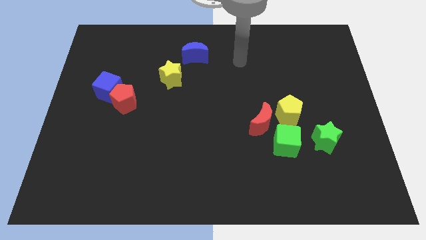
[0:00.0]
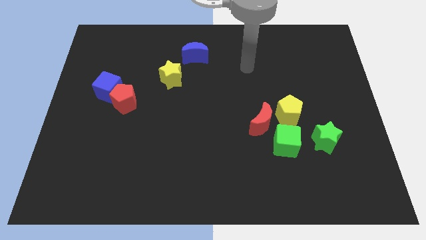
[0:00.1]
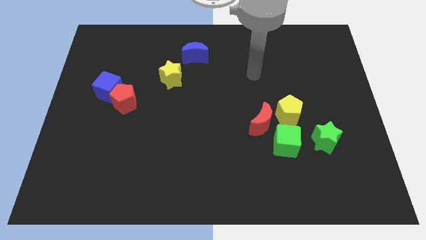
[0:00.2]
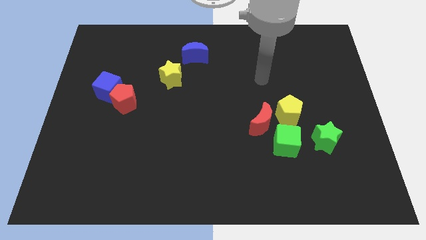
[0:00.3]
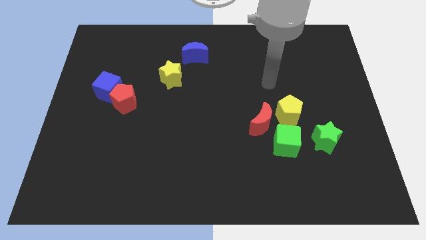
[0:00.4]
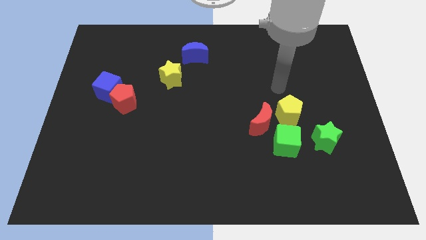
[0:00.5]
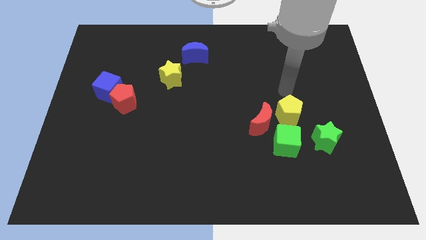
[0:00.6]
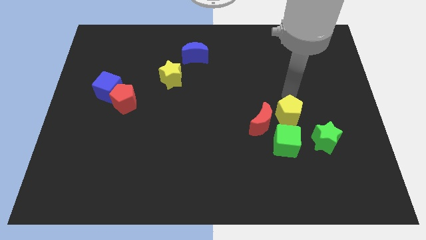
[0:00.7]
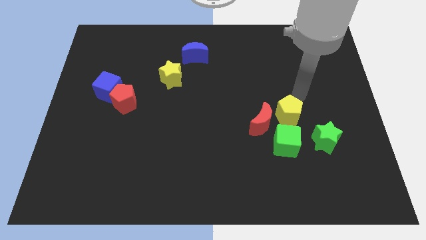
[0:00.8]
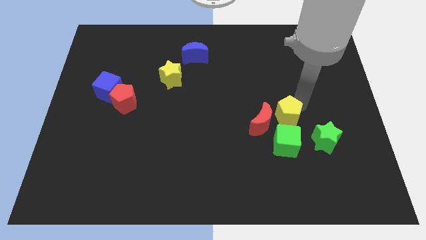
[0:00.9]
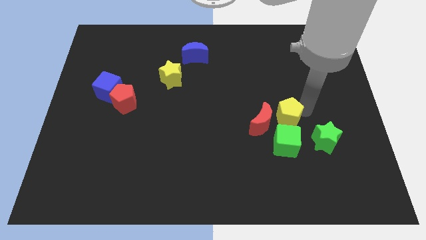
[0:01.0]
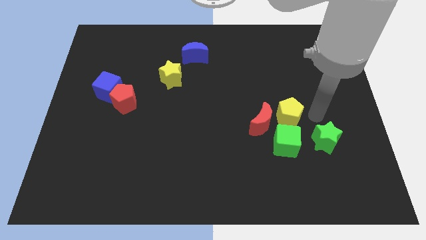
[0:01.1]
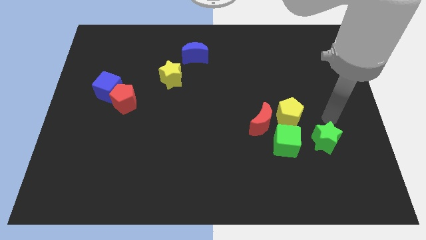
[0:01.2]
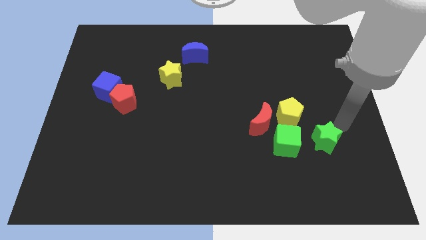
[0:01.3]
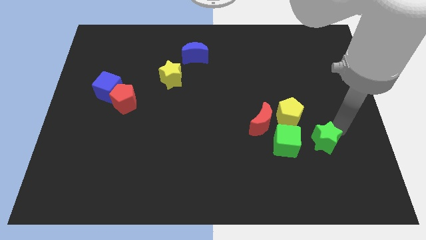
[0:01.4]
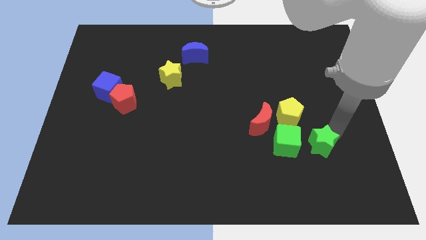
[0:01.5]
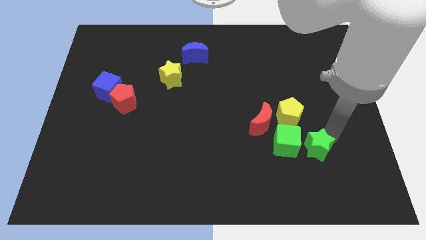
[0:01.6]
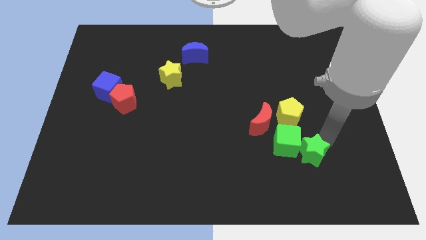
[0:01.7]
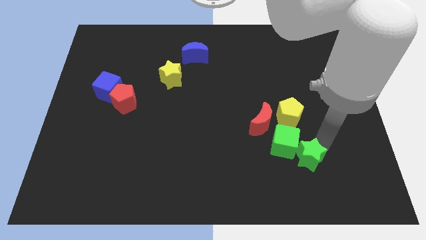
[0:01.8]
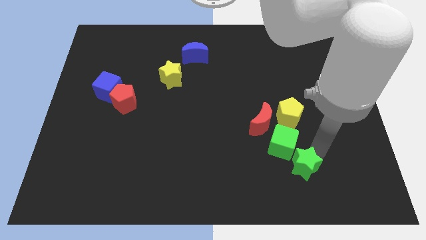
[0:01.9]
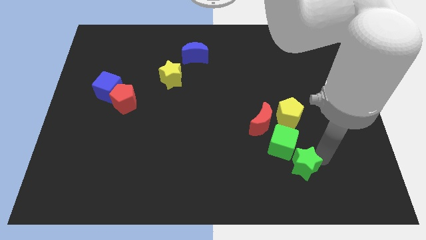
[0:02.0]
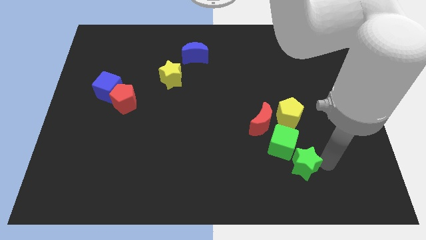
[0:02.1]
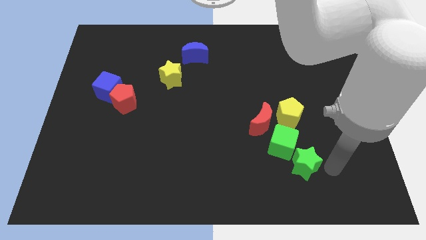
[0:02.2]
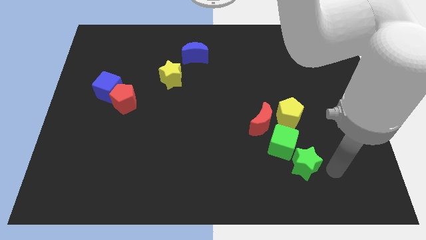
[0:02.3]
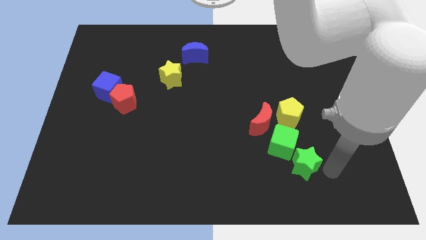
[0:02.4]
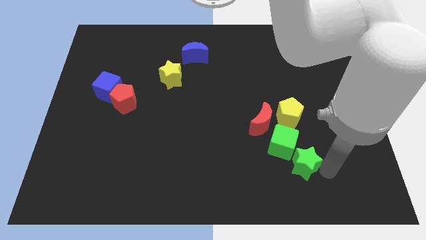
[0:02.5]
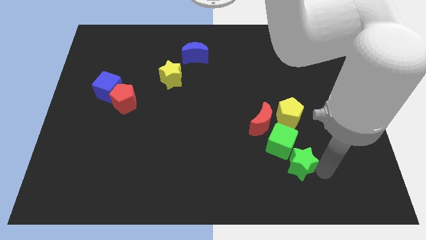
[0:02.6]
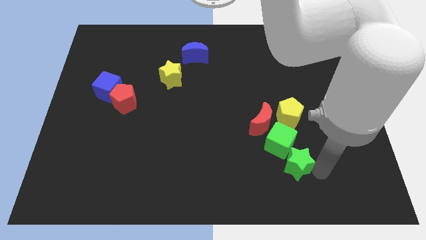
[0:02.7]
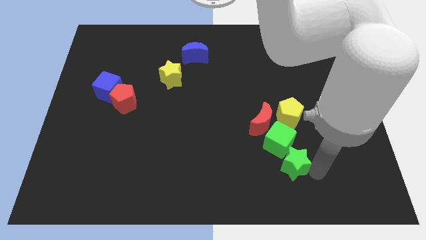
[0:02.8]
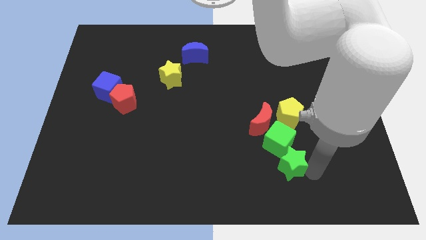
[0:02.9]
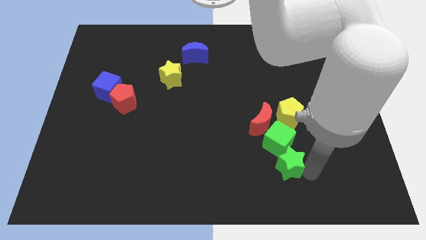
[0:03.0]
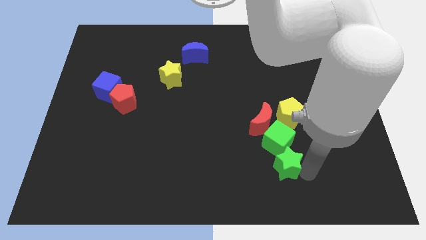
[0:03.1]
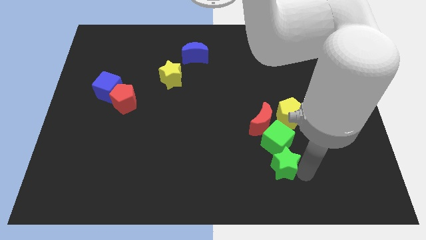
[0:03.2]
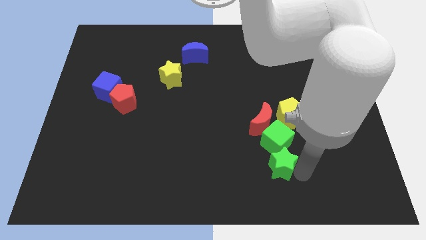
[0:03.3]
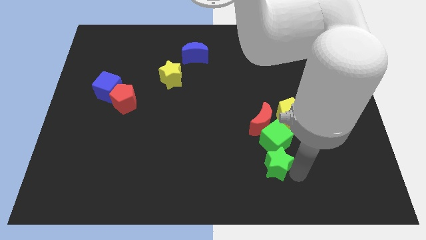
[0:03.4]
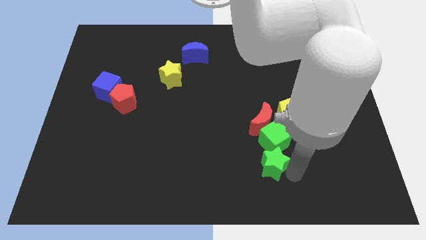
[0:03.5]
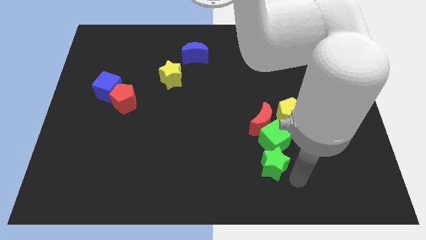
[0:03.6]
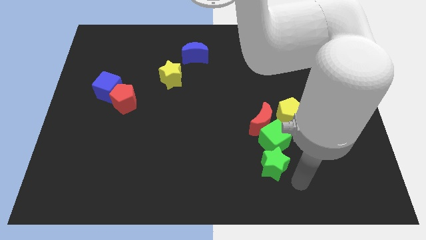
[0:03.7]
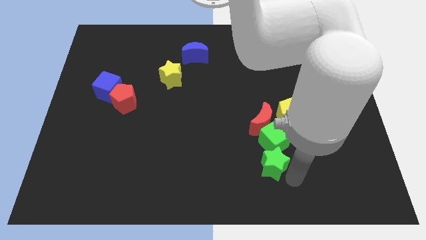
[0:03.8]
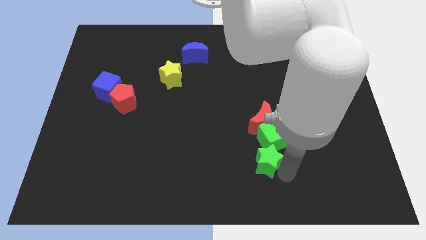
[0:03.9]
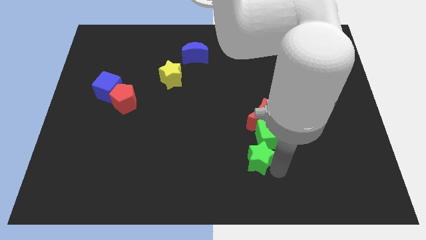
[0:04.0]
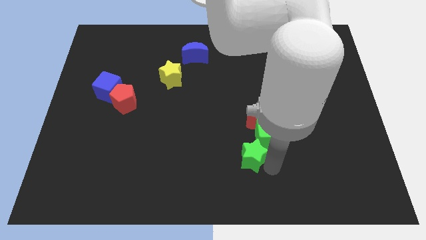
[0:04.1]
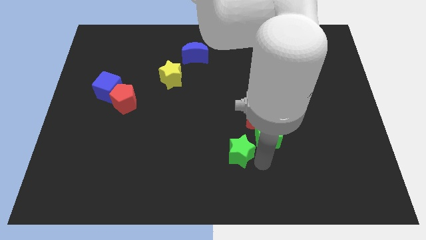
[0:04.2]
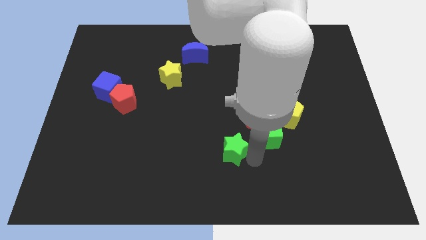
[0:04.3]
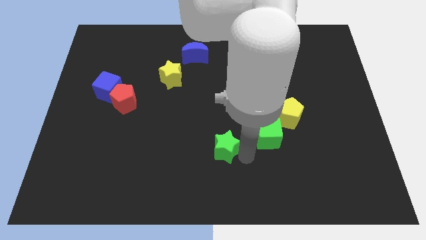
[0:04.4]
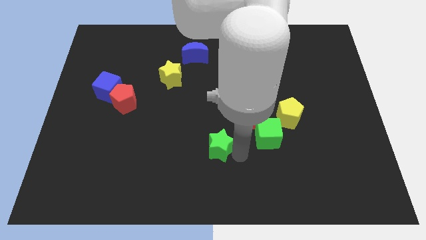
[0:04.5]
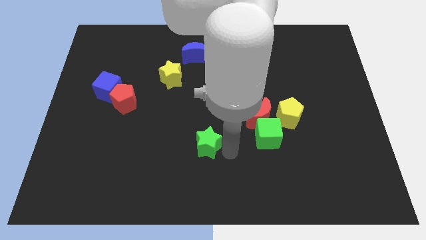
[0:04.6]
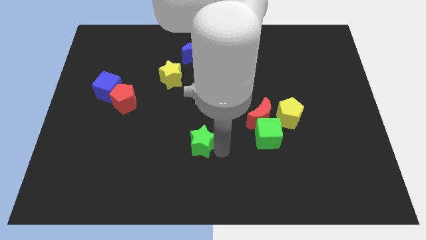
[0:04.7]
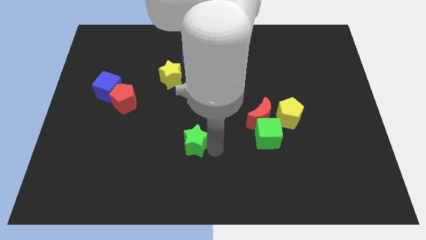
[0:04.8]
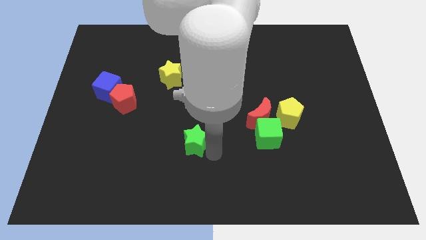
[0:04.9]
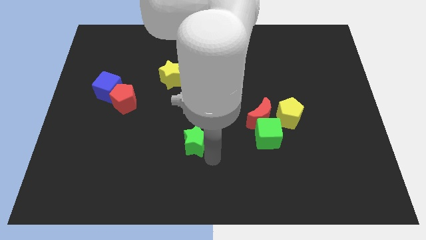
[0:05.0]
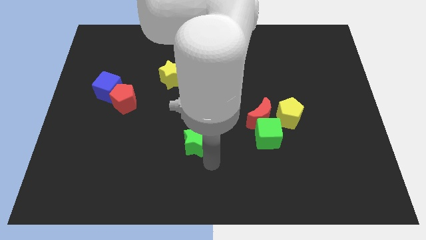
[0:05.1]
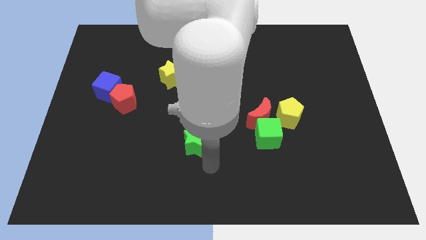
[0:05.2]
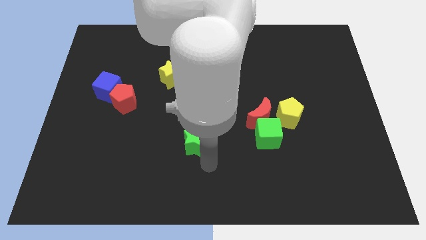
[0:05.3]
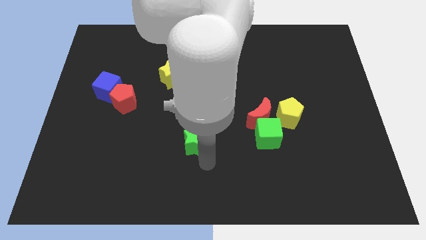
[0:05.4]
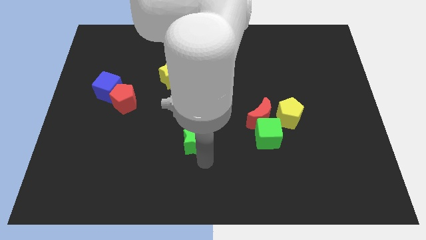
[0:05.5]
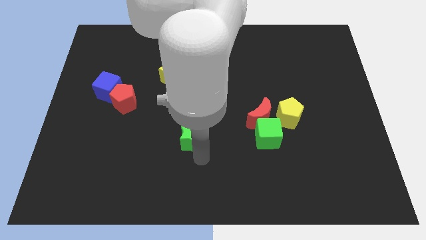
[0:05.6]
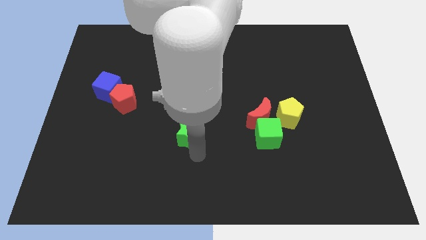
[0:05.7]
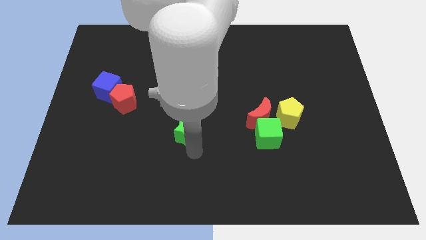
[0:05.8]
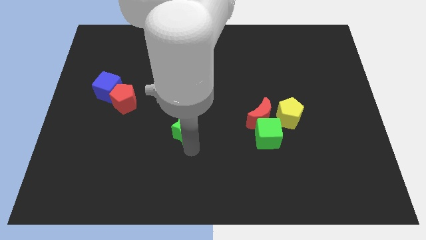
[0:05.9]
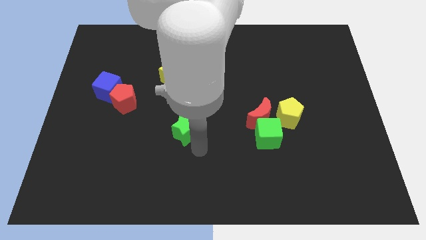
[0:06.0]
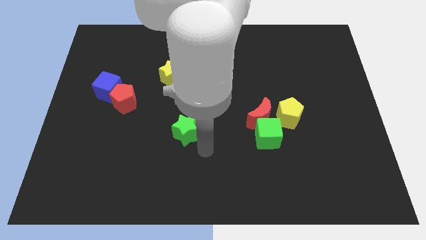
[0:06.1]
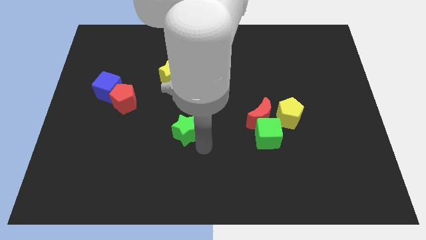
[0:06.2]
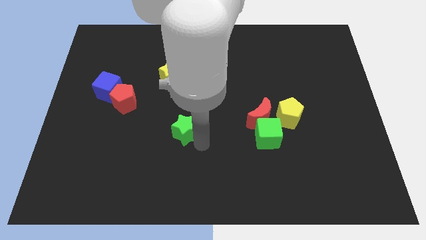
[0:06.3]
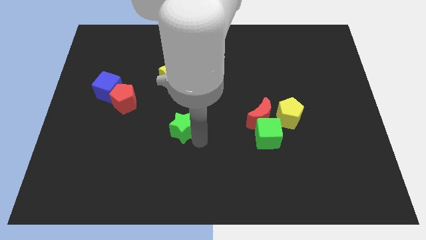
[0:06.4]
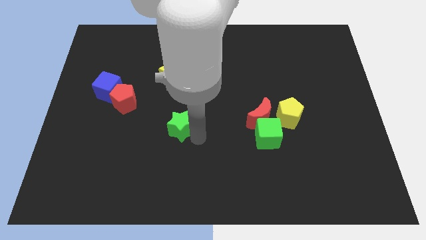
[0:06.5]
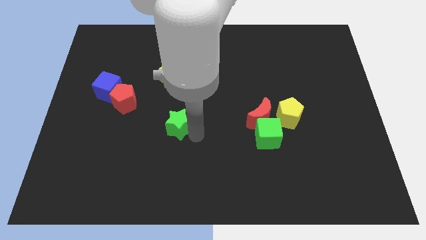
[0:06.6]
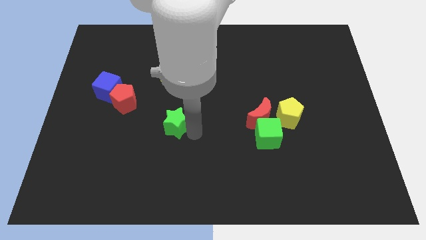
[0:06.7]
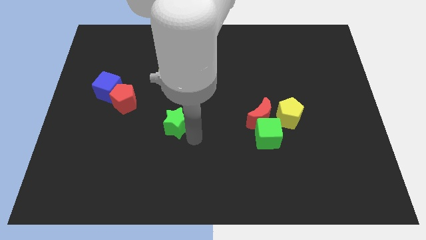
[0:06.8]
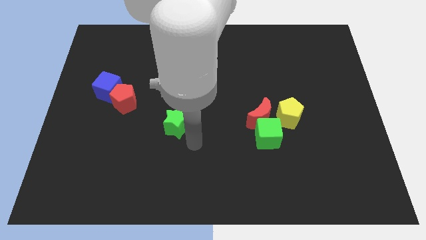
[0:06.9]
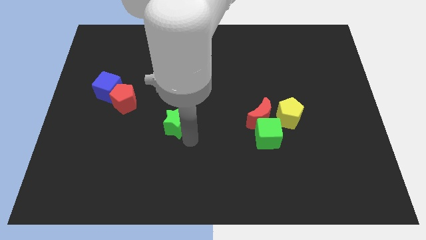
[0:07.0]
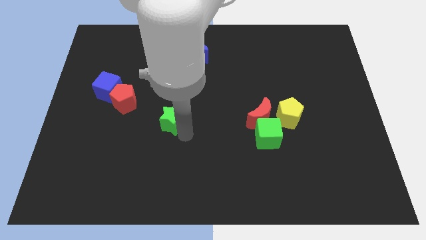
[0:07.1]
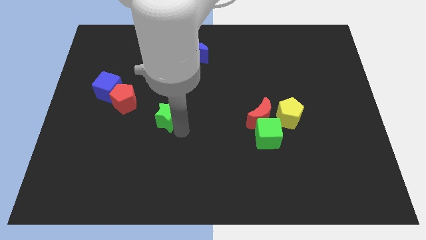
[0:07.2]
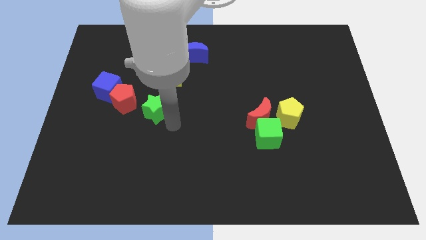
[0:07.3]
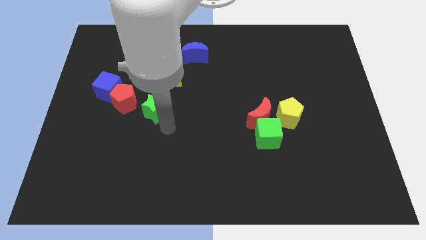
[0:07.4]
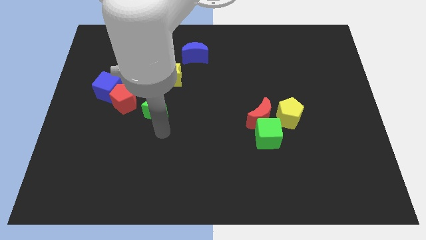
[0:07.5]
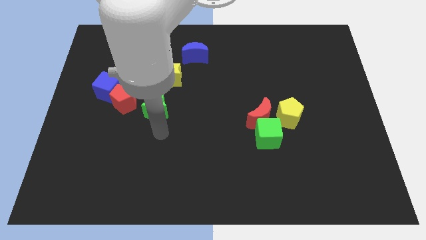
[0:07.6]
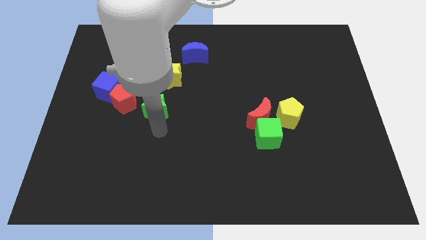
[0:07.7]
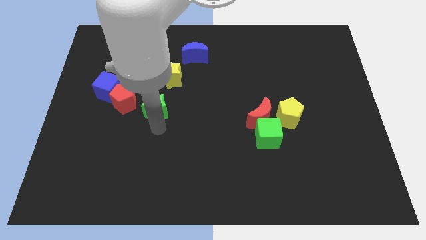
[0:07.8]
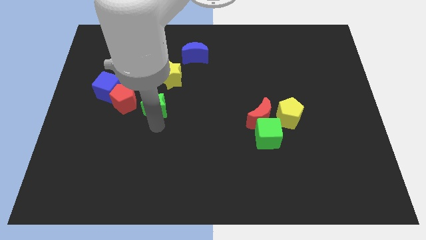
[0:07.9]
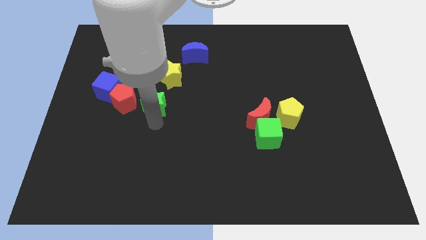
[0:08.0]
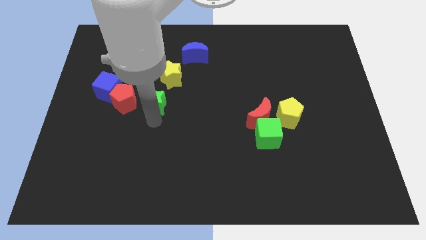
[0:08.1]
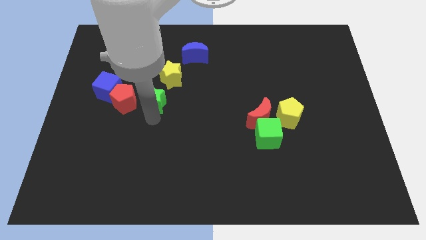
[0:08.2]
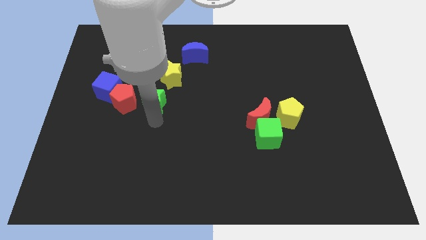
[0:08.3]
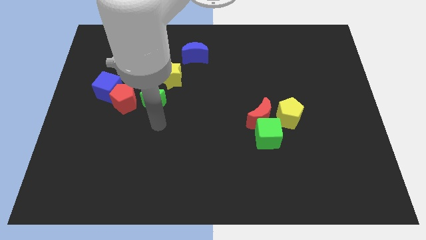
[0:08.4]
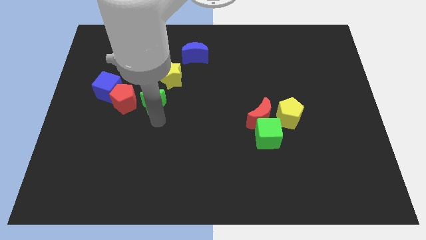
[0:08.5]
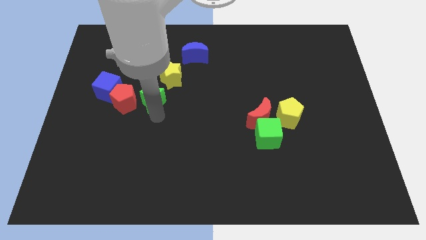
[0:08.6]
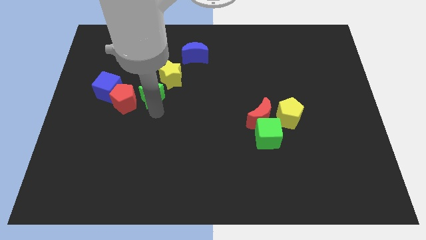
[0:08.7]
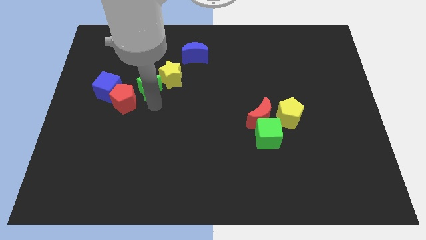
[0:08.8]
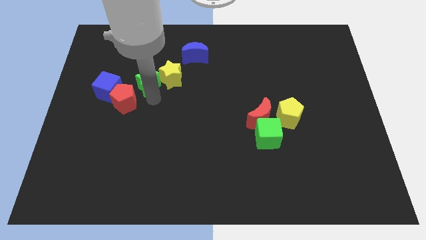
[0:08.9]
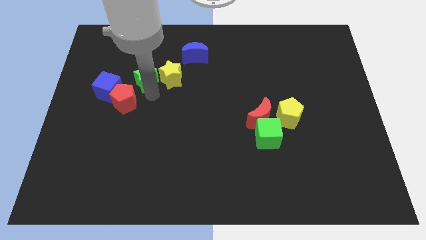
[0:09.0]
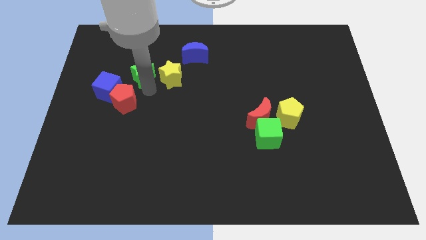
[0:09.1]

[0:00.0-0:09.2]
put the green star diagonally up and to the left of the yellow star
